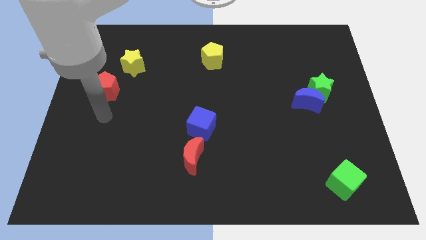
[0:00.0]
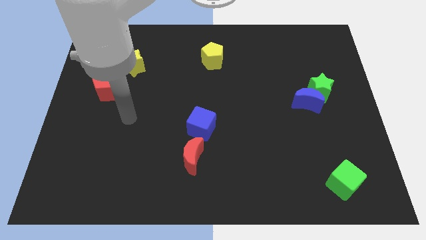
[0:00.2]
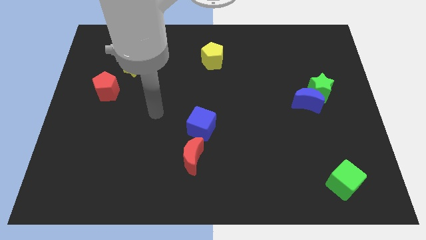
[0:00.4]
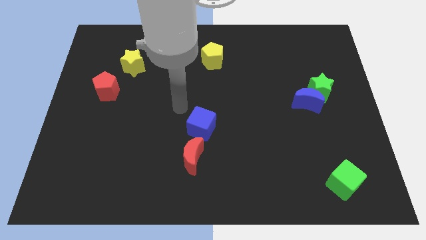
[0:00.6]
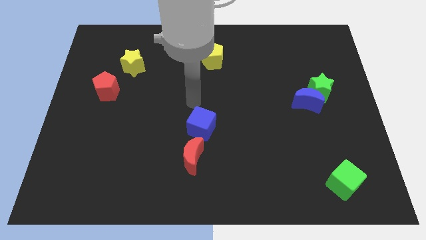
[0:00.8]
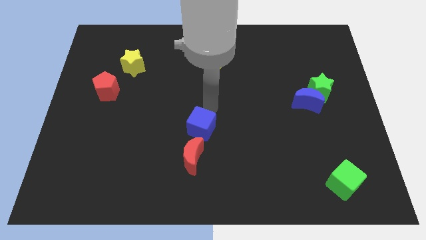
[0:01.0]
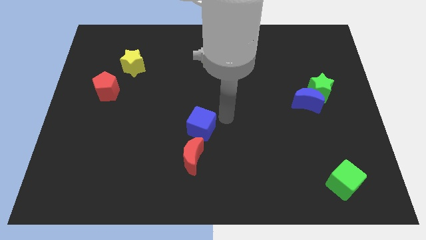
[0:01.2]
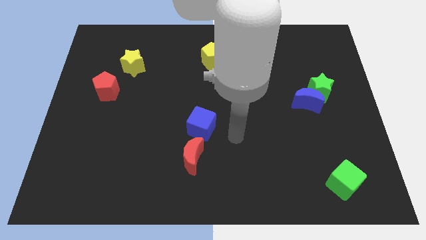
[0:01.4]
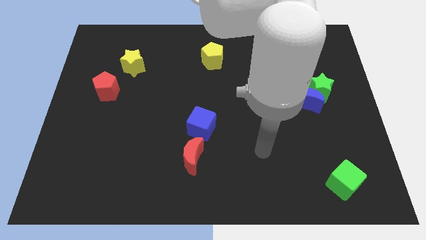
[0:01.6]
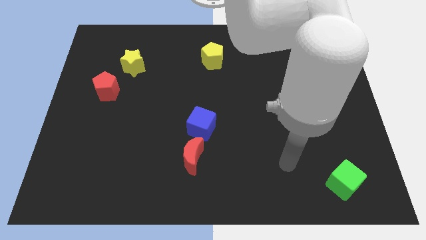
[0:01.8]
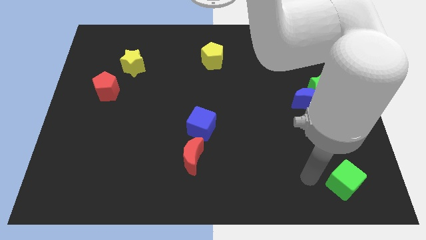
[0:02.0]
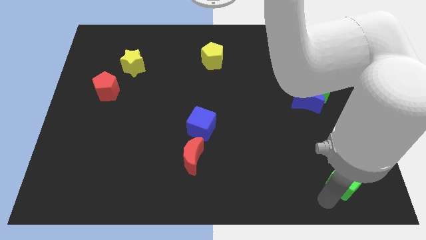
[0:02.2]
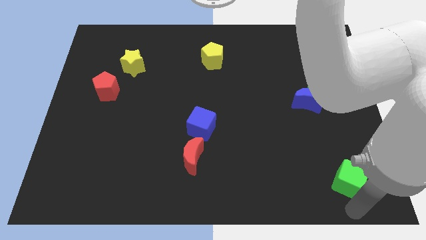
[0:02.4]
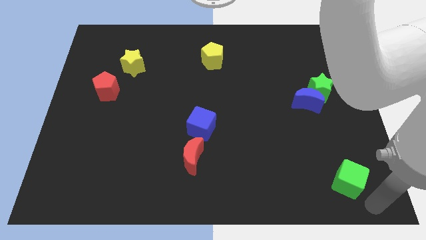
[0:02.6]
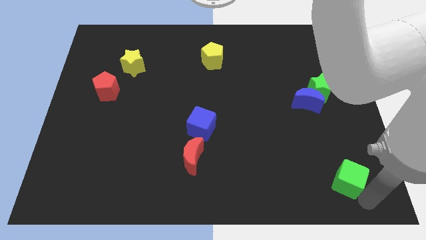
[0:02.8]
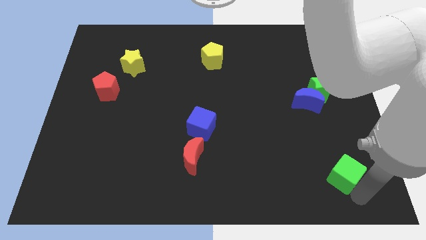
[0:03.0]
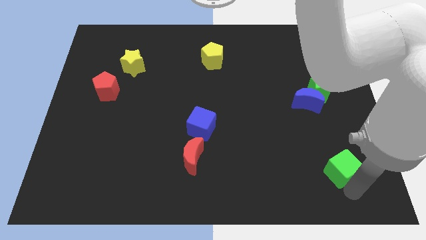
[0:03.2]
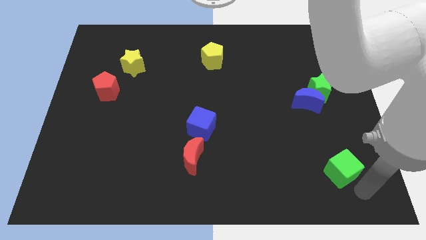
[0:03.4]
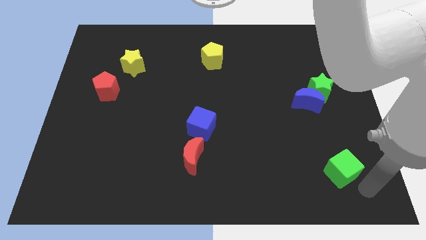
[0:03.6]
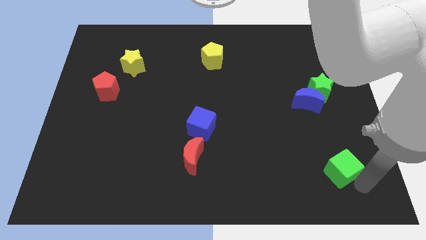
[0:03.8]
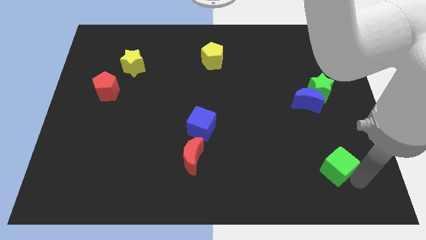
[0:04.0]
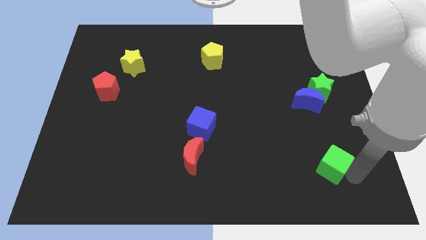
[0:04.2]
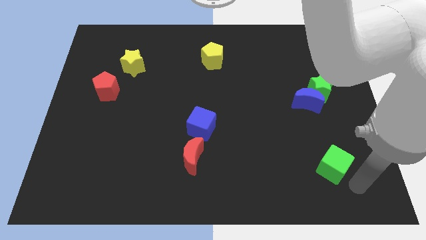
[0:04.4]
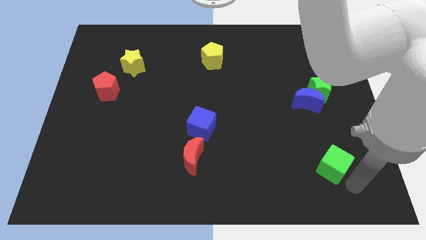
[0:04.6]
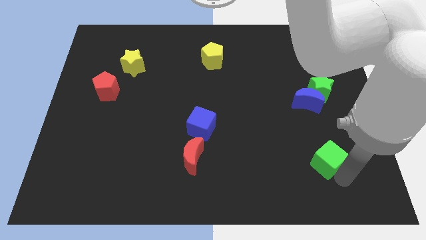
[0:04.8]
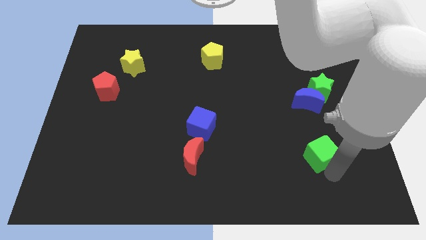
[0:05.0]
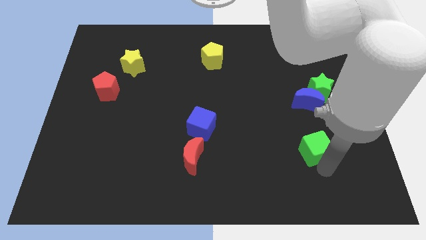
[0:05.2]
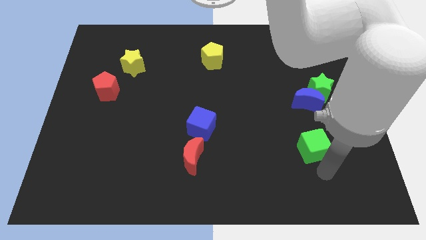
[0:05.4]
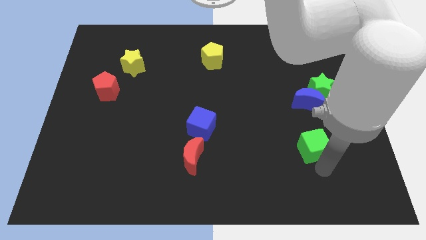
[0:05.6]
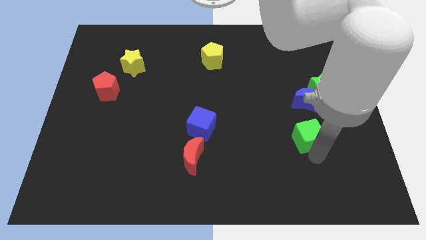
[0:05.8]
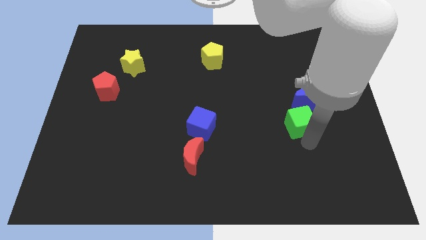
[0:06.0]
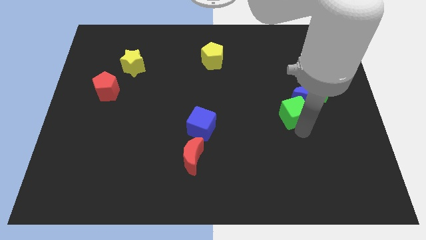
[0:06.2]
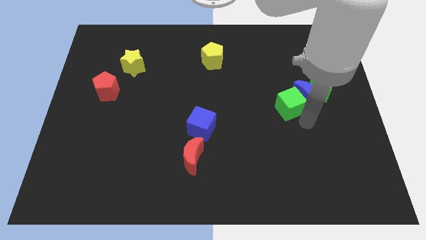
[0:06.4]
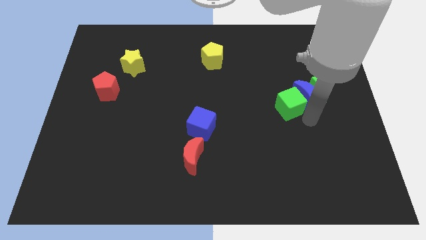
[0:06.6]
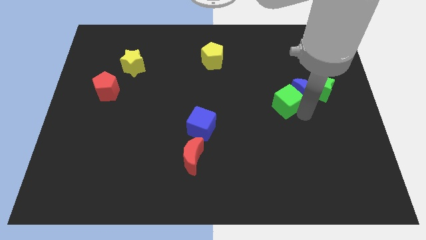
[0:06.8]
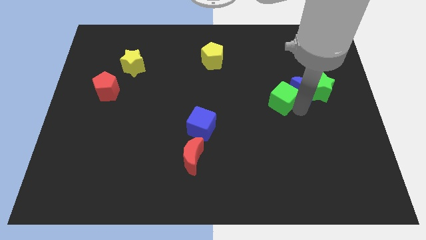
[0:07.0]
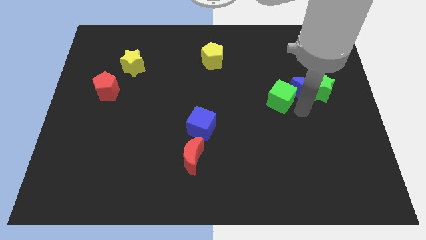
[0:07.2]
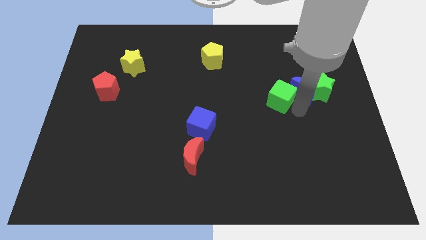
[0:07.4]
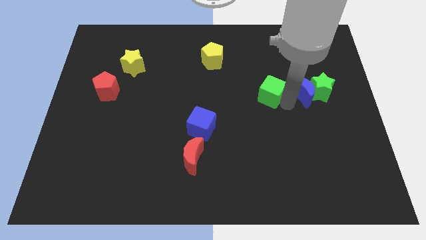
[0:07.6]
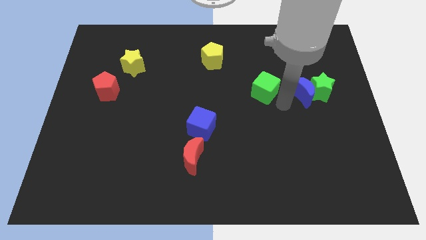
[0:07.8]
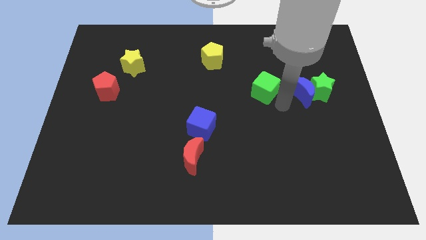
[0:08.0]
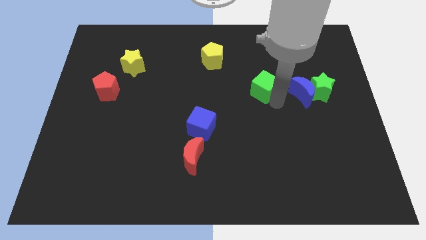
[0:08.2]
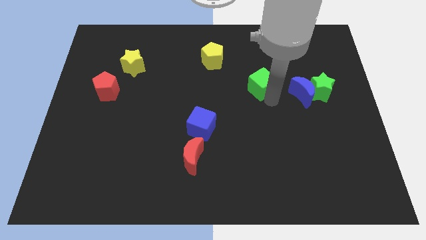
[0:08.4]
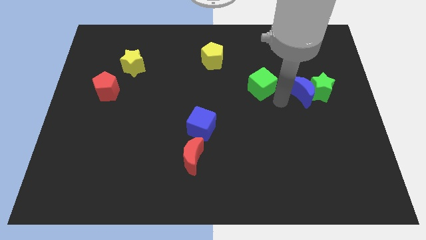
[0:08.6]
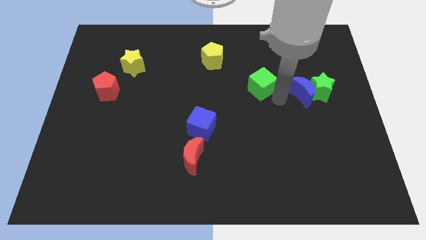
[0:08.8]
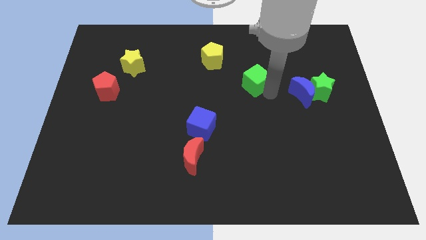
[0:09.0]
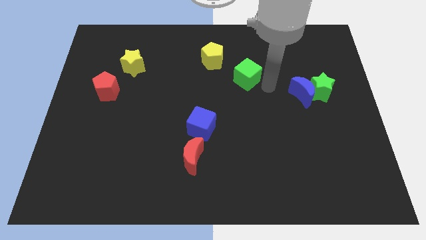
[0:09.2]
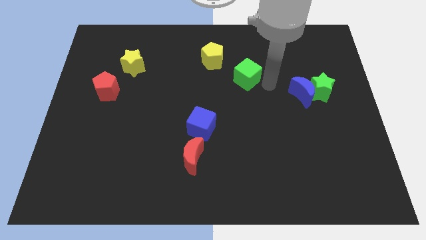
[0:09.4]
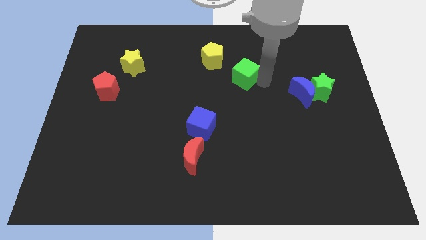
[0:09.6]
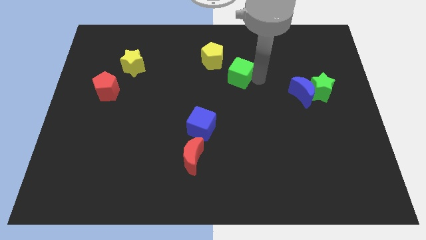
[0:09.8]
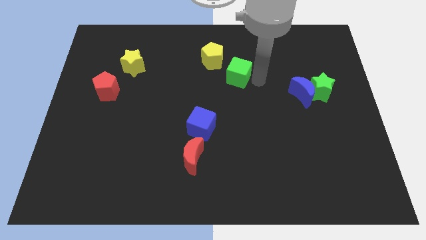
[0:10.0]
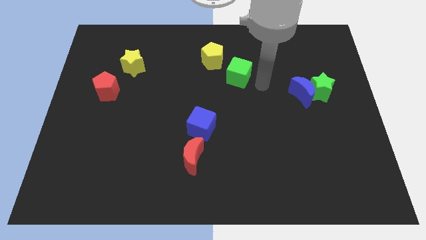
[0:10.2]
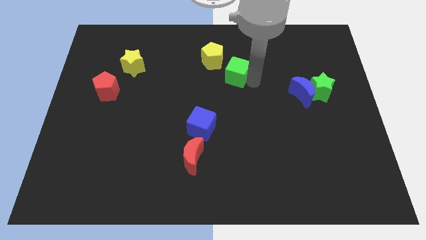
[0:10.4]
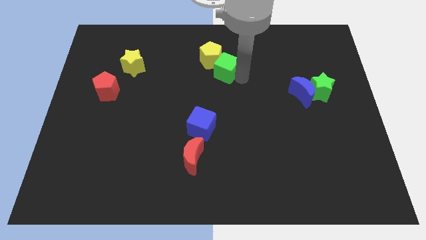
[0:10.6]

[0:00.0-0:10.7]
put the green cube towards the yellow pentagon

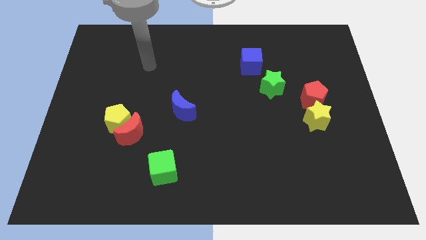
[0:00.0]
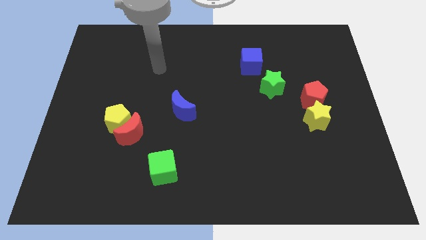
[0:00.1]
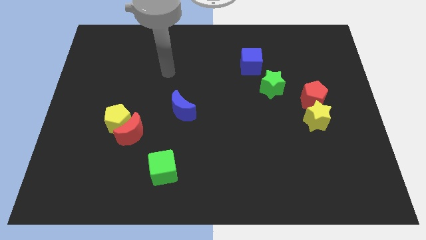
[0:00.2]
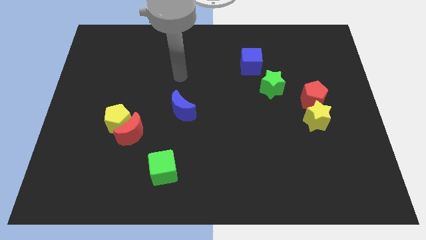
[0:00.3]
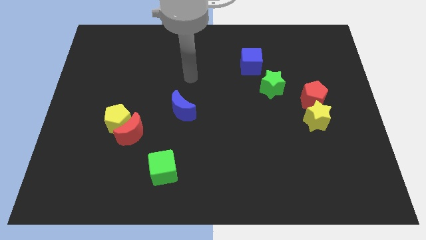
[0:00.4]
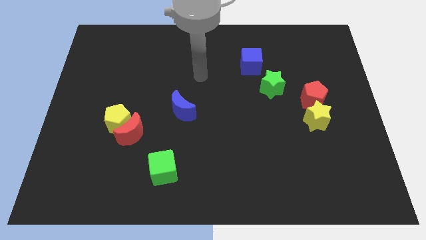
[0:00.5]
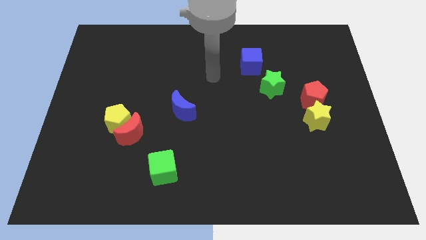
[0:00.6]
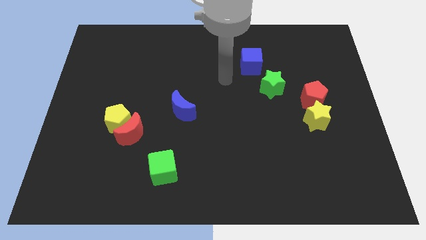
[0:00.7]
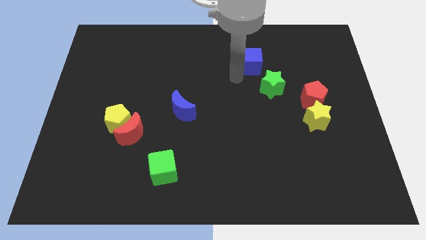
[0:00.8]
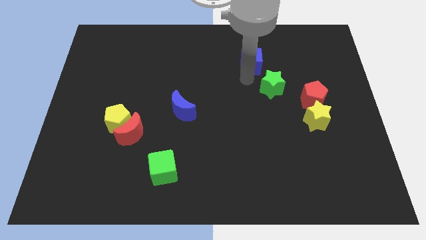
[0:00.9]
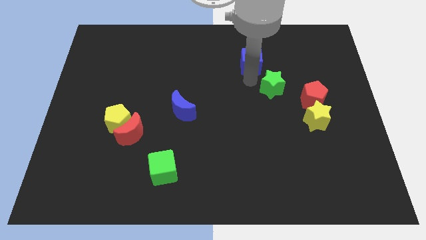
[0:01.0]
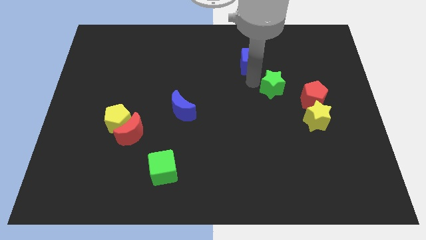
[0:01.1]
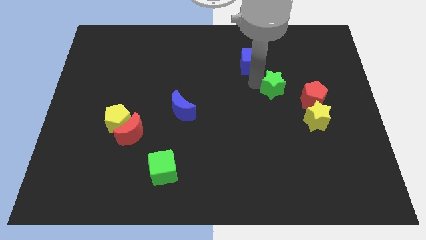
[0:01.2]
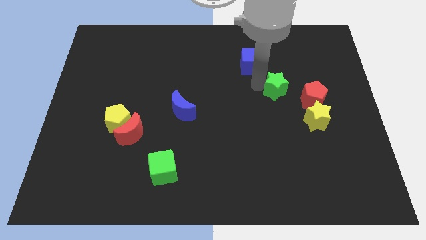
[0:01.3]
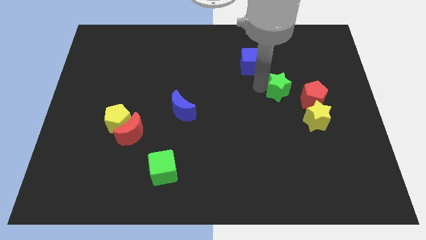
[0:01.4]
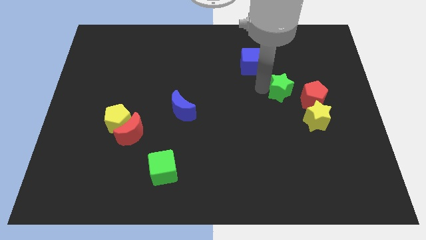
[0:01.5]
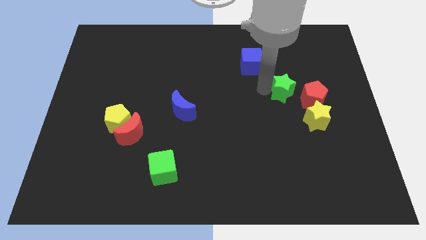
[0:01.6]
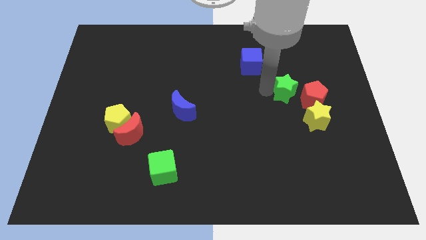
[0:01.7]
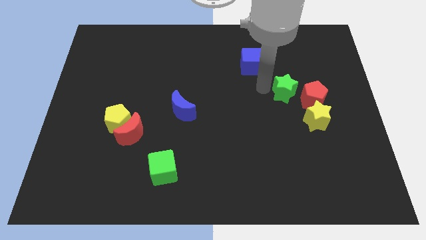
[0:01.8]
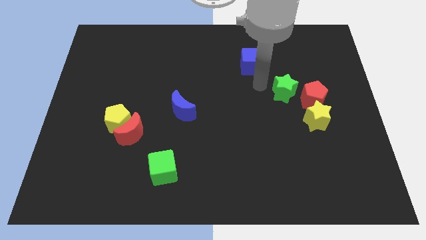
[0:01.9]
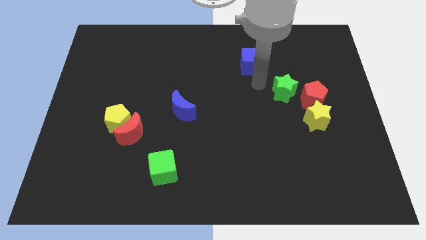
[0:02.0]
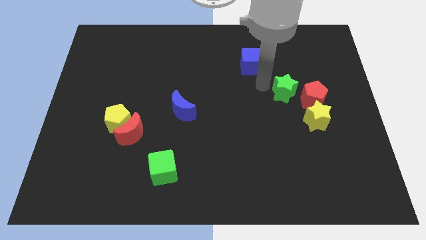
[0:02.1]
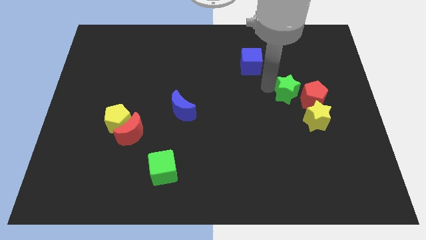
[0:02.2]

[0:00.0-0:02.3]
slide the green star close to the red pentagon

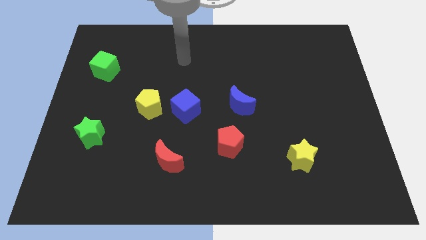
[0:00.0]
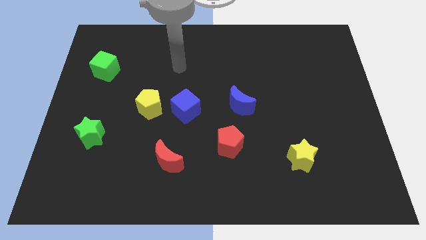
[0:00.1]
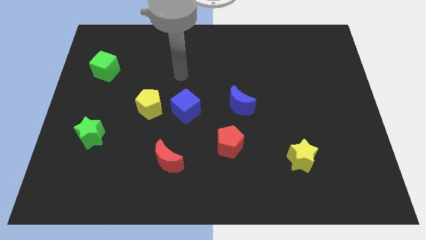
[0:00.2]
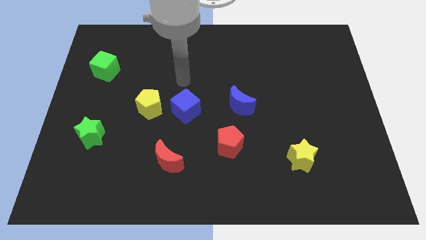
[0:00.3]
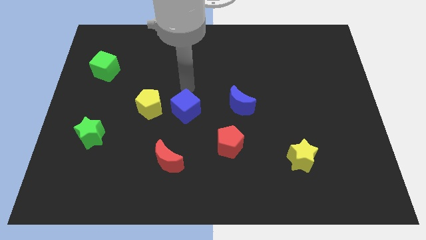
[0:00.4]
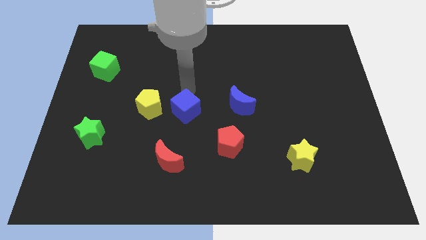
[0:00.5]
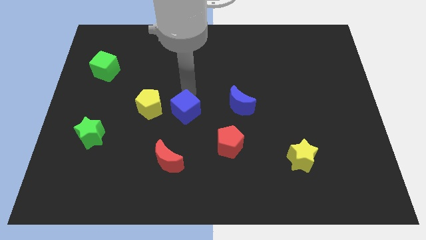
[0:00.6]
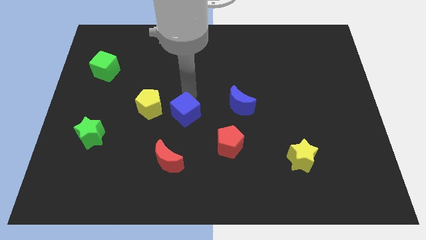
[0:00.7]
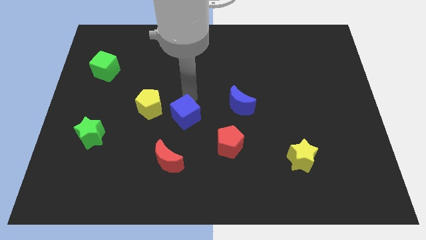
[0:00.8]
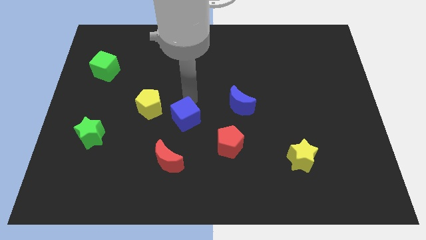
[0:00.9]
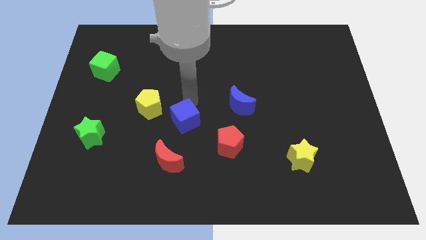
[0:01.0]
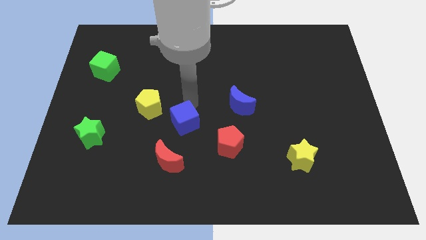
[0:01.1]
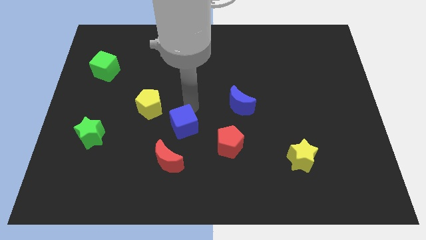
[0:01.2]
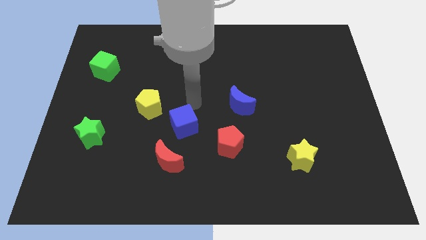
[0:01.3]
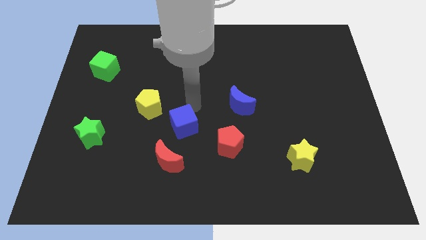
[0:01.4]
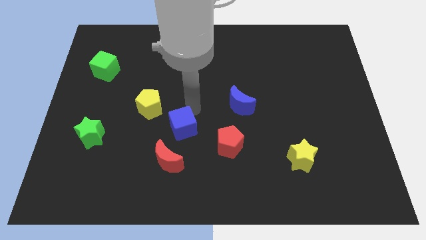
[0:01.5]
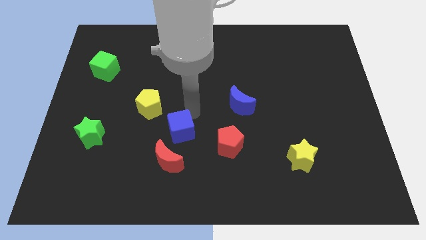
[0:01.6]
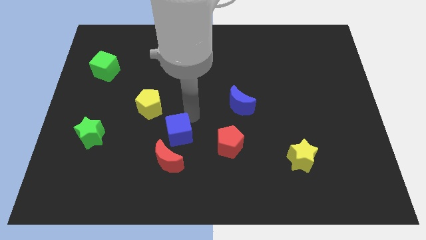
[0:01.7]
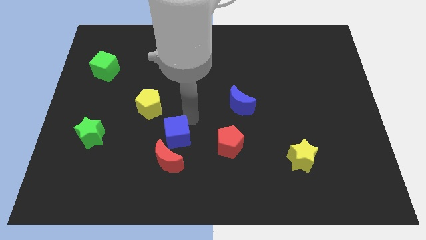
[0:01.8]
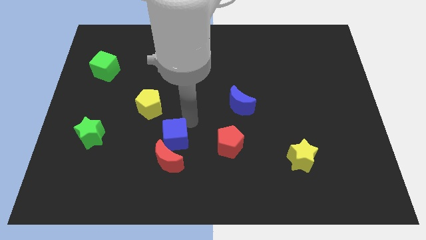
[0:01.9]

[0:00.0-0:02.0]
put the blue cube next to the red moon
